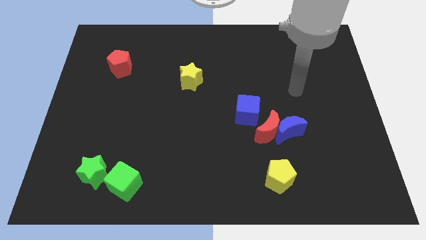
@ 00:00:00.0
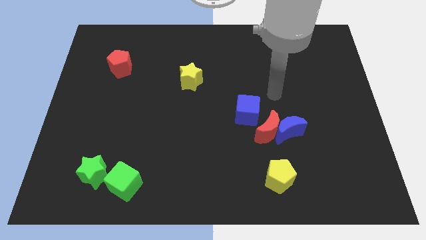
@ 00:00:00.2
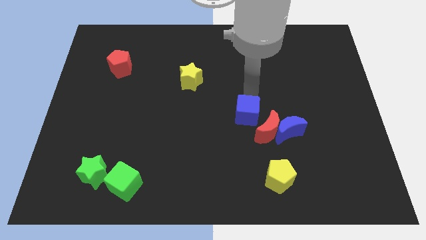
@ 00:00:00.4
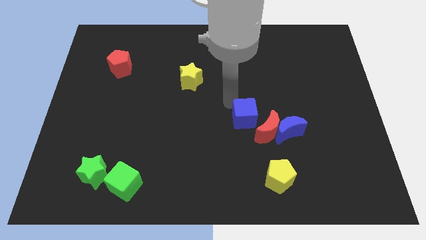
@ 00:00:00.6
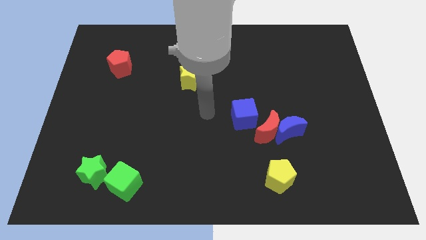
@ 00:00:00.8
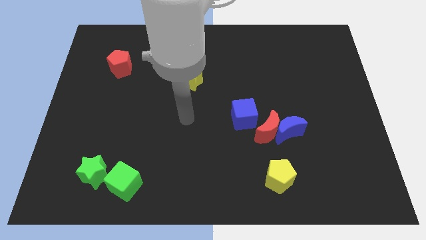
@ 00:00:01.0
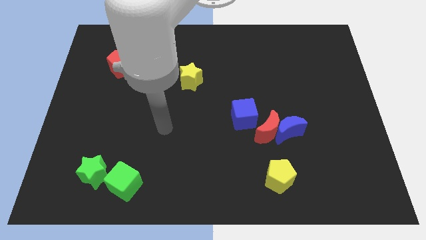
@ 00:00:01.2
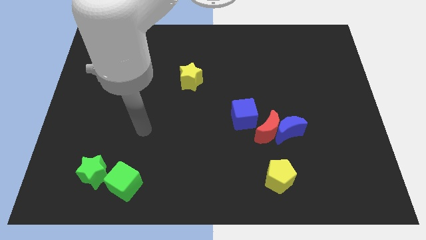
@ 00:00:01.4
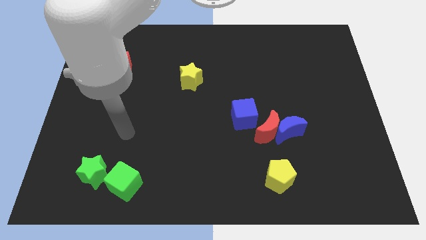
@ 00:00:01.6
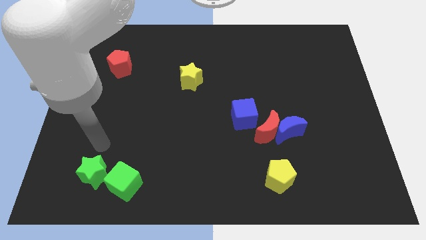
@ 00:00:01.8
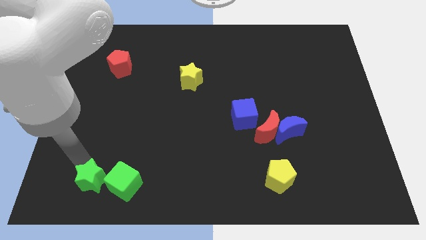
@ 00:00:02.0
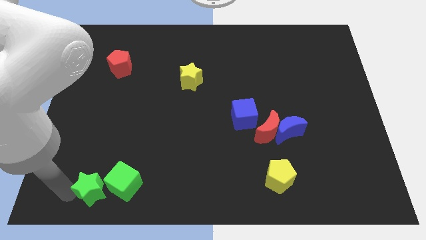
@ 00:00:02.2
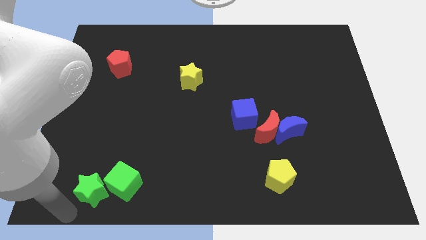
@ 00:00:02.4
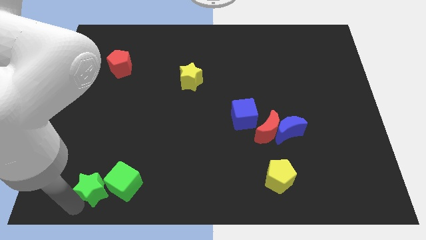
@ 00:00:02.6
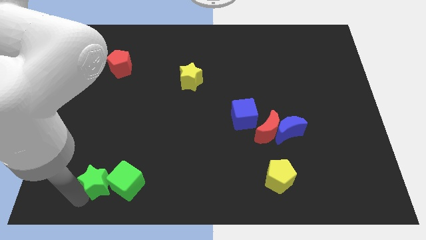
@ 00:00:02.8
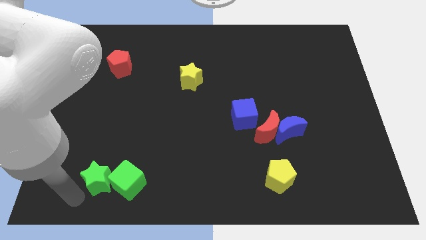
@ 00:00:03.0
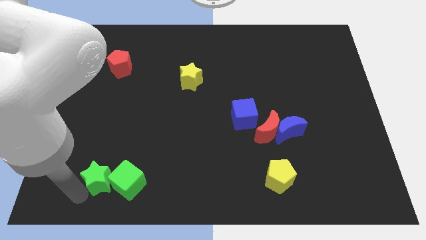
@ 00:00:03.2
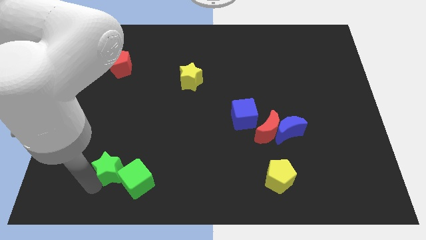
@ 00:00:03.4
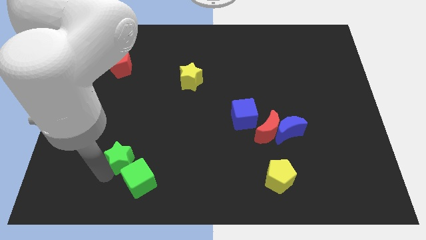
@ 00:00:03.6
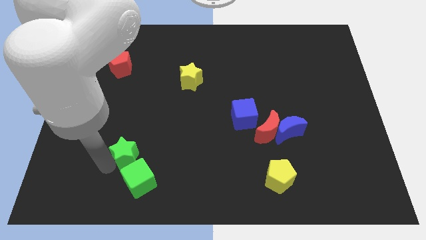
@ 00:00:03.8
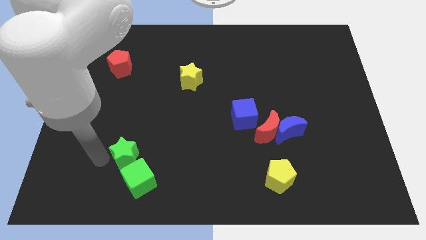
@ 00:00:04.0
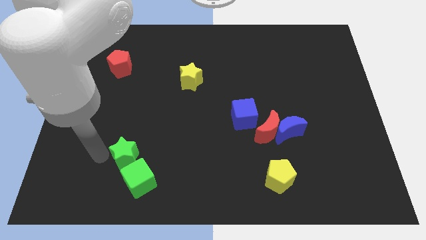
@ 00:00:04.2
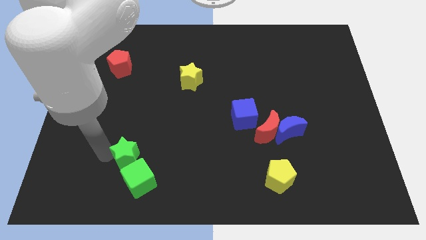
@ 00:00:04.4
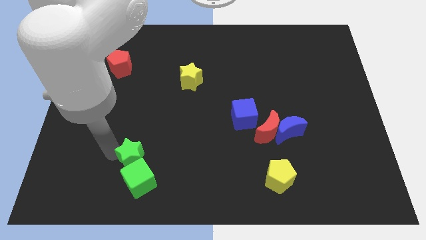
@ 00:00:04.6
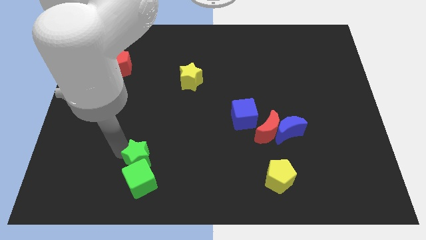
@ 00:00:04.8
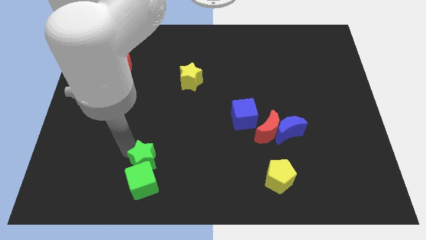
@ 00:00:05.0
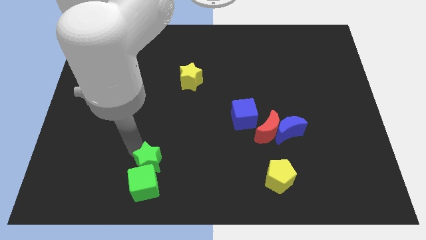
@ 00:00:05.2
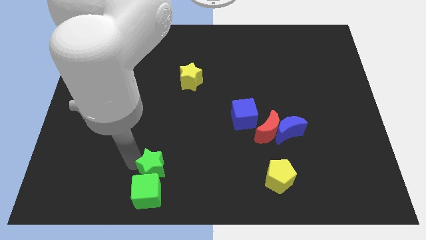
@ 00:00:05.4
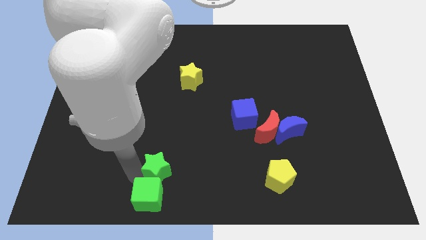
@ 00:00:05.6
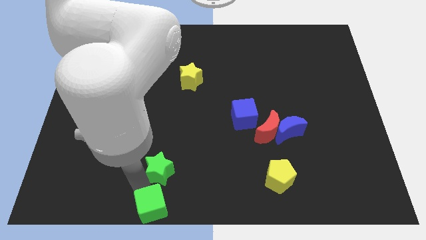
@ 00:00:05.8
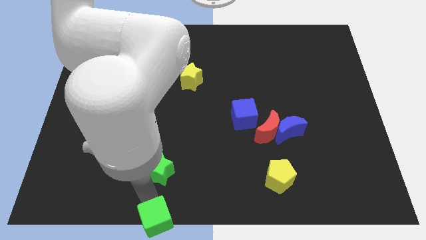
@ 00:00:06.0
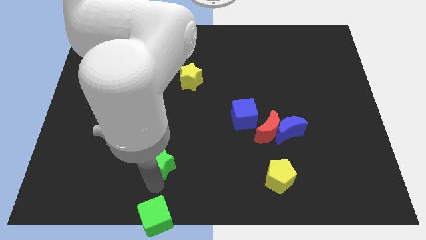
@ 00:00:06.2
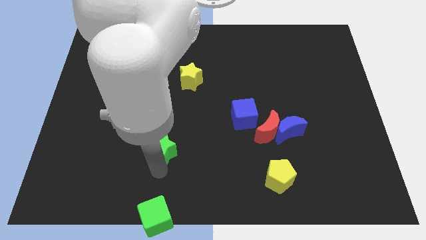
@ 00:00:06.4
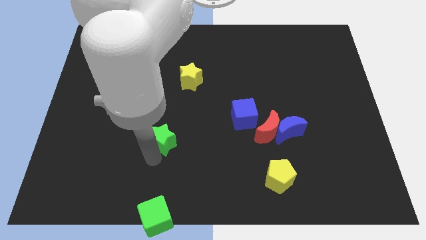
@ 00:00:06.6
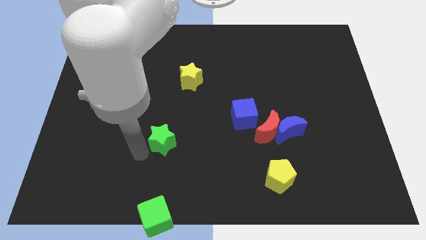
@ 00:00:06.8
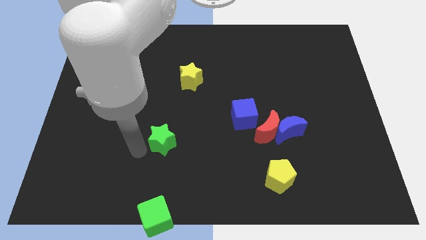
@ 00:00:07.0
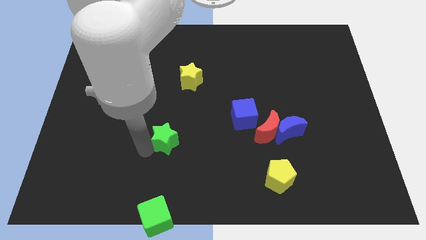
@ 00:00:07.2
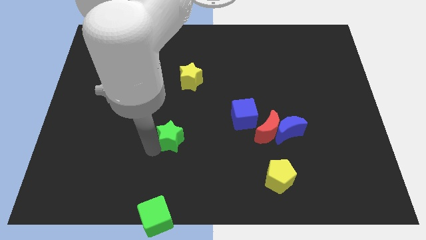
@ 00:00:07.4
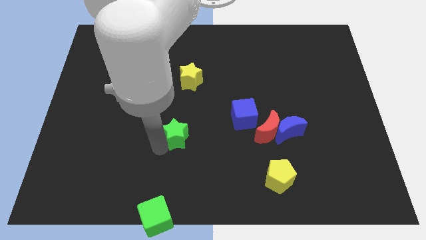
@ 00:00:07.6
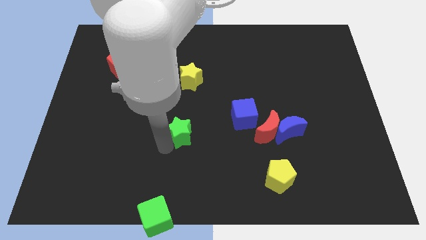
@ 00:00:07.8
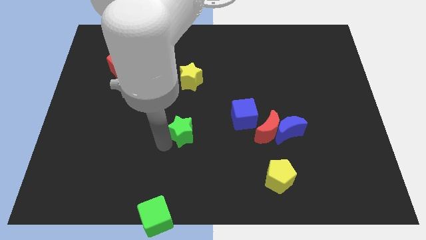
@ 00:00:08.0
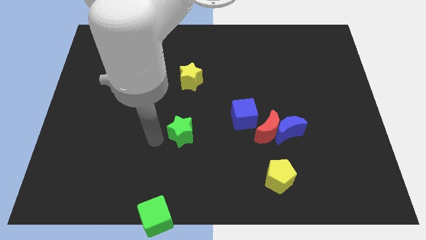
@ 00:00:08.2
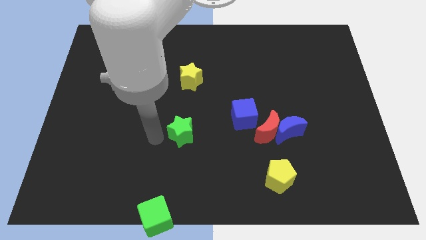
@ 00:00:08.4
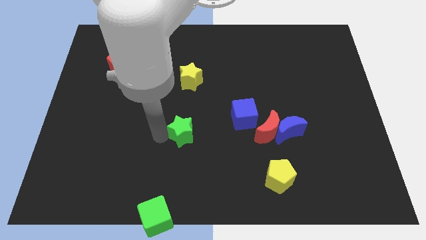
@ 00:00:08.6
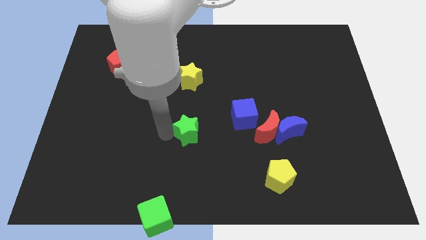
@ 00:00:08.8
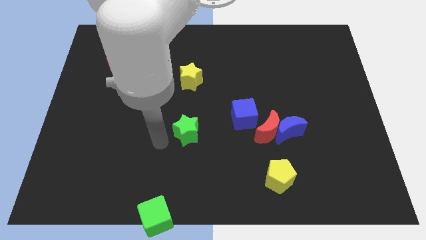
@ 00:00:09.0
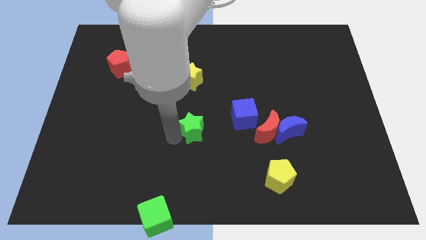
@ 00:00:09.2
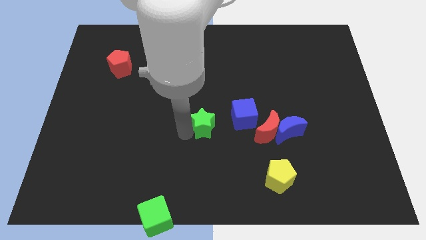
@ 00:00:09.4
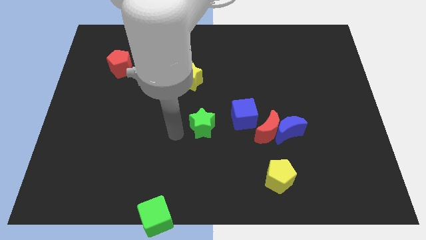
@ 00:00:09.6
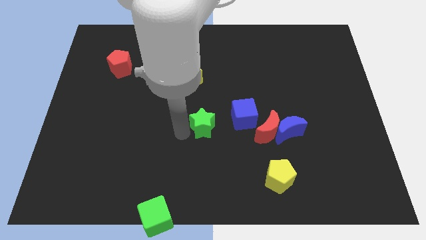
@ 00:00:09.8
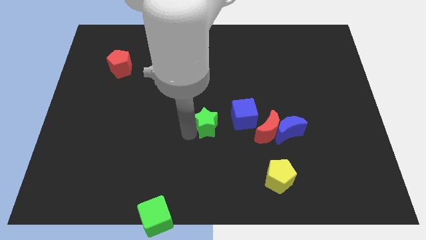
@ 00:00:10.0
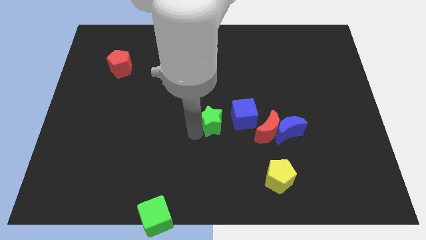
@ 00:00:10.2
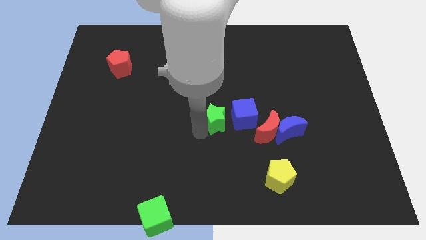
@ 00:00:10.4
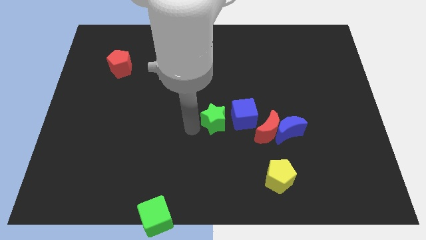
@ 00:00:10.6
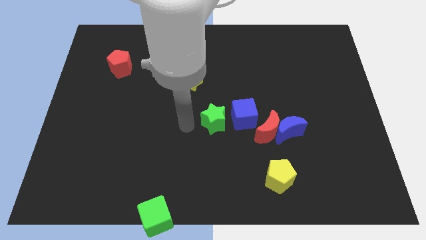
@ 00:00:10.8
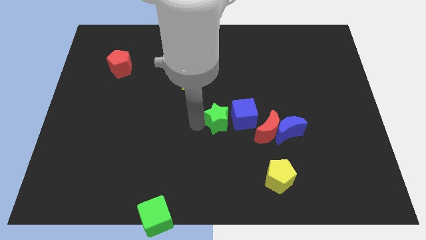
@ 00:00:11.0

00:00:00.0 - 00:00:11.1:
push the green star close to the blue cube
